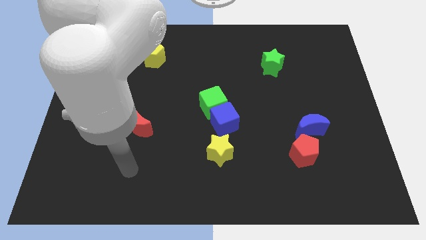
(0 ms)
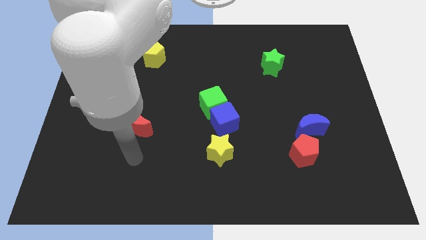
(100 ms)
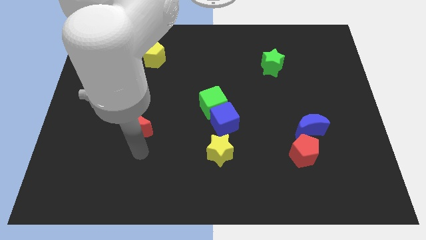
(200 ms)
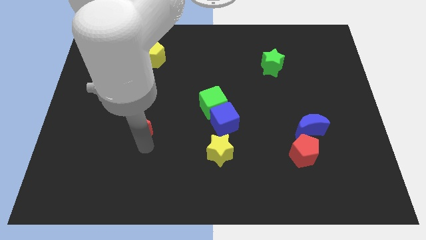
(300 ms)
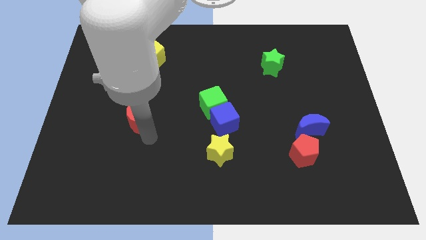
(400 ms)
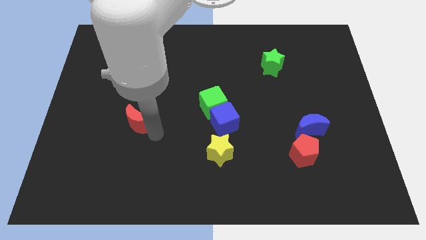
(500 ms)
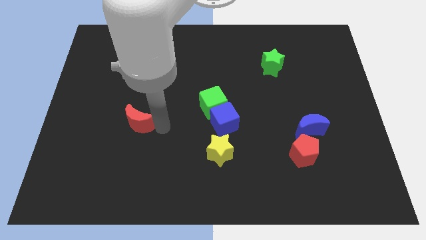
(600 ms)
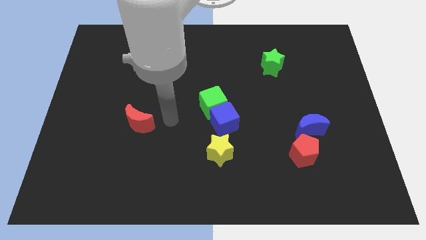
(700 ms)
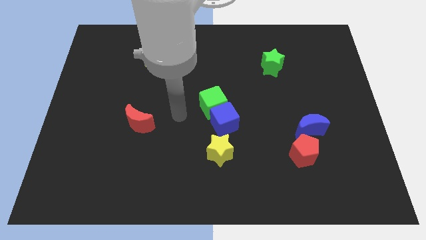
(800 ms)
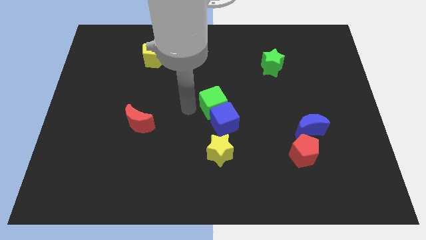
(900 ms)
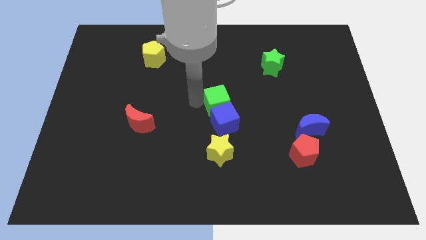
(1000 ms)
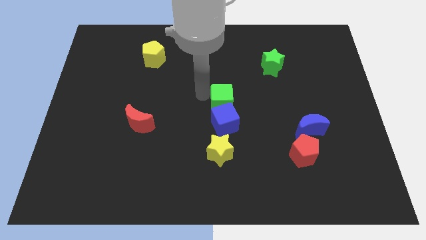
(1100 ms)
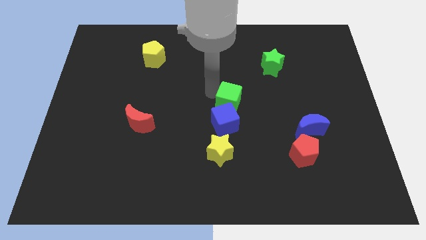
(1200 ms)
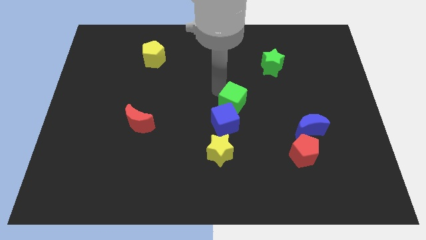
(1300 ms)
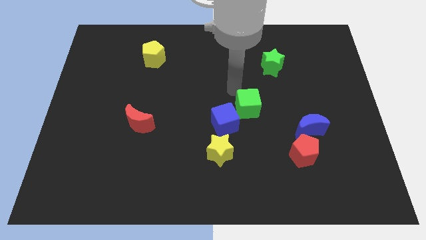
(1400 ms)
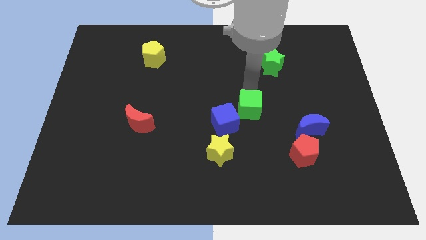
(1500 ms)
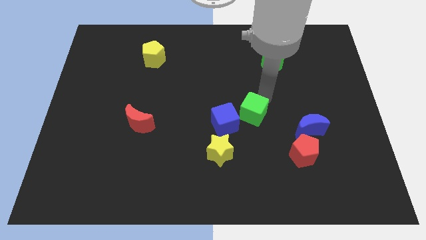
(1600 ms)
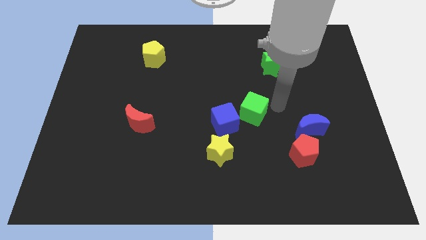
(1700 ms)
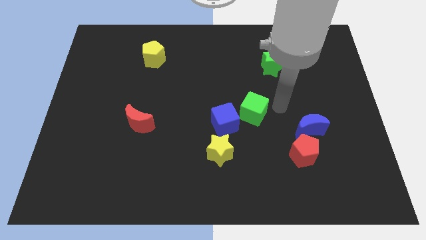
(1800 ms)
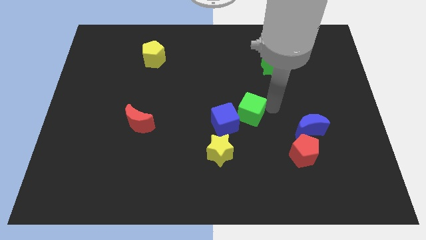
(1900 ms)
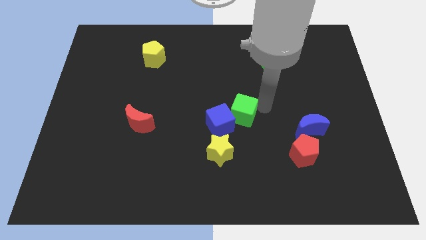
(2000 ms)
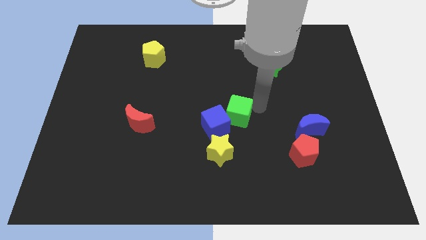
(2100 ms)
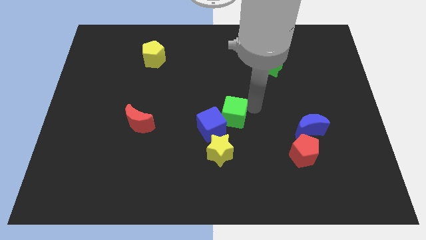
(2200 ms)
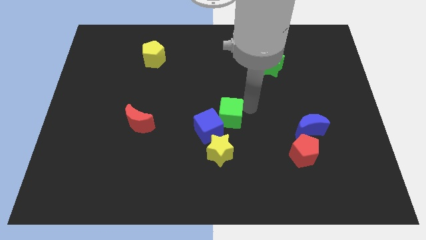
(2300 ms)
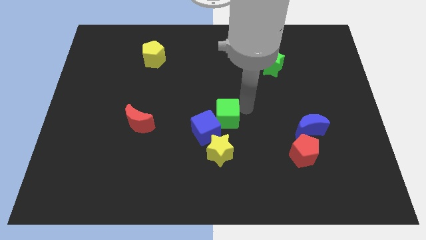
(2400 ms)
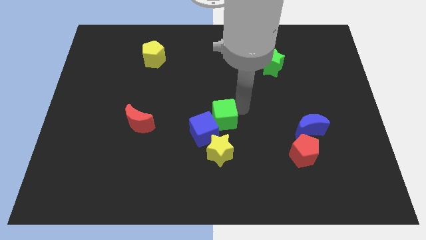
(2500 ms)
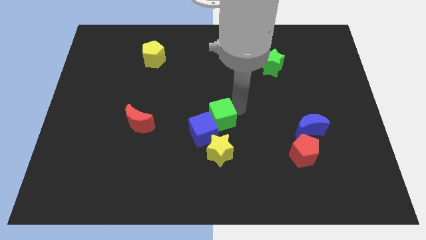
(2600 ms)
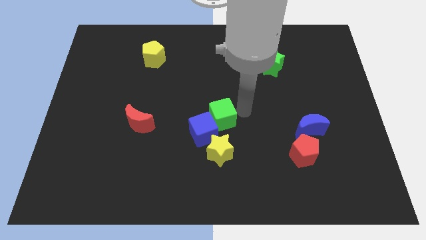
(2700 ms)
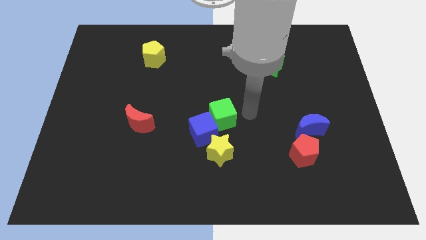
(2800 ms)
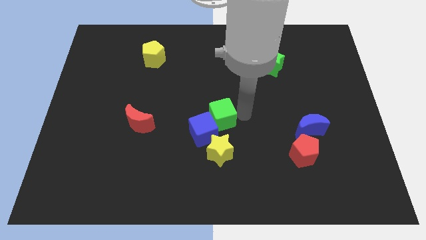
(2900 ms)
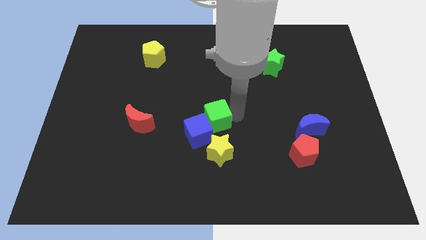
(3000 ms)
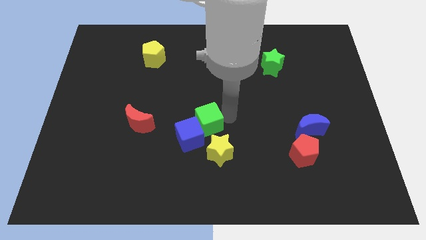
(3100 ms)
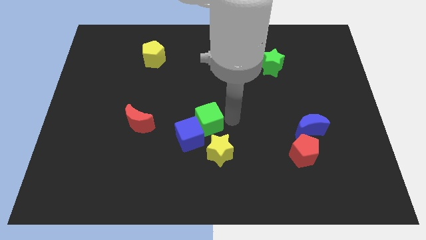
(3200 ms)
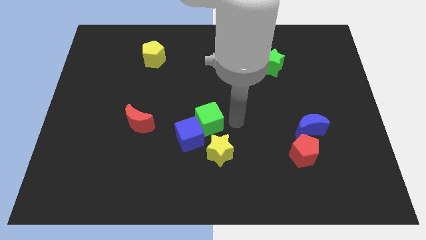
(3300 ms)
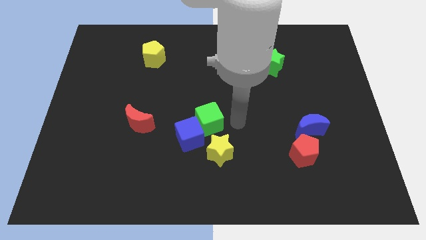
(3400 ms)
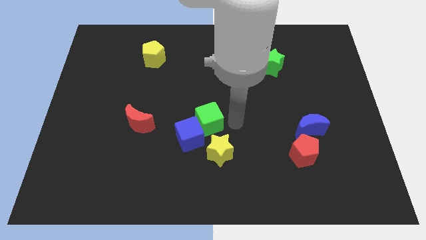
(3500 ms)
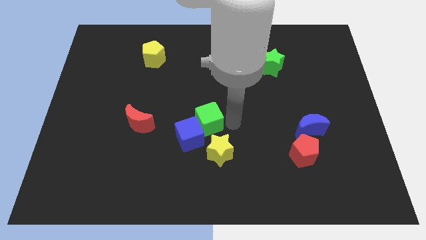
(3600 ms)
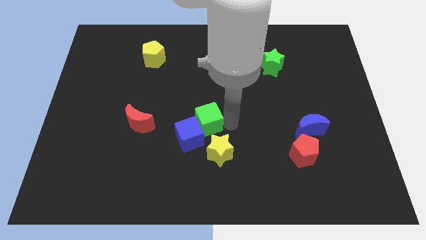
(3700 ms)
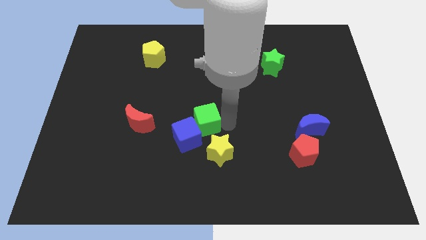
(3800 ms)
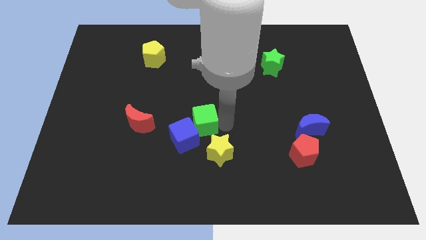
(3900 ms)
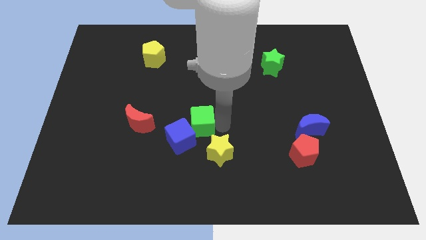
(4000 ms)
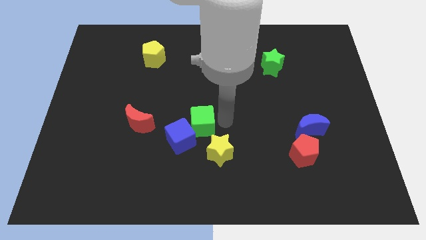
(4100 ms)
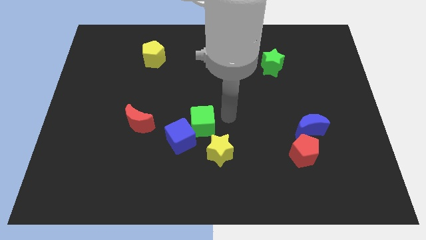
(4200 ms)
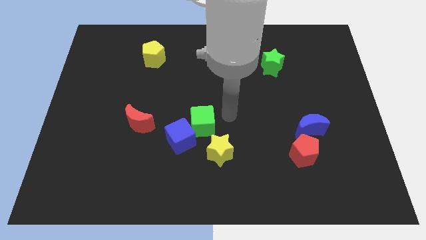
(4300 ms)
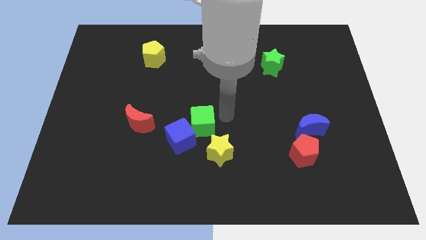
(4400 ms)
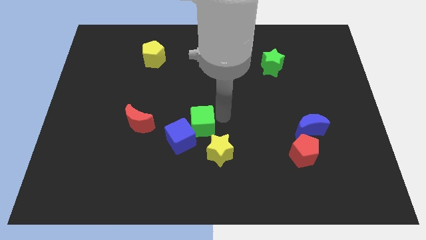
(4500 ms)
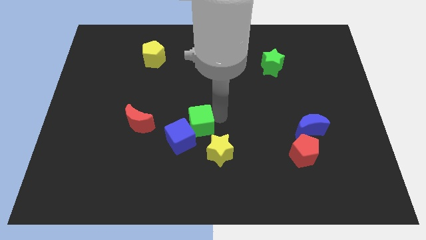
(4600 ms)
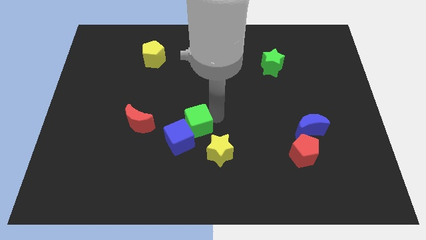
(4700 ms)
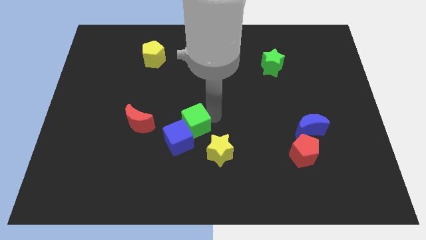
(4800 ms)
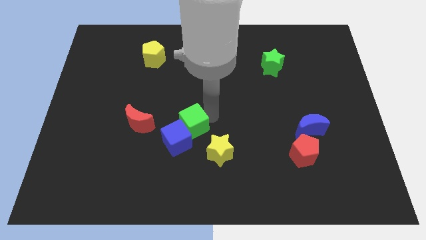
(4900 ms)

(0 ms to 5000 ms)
push the green cube a little bit downwards and left diagonally

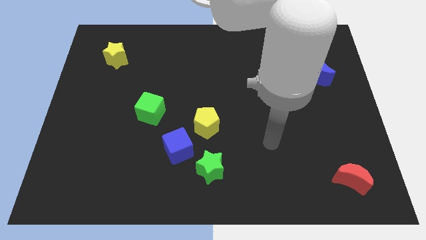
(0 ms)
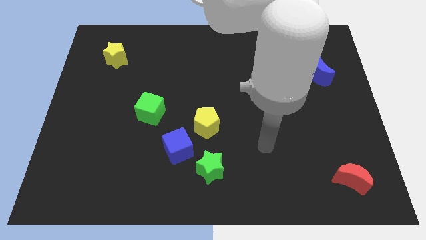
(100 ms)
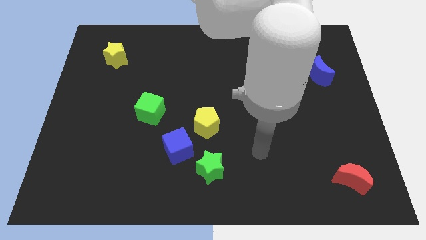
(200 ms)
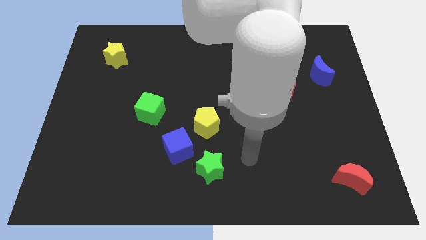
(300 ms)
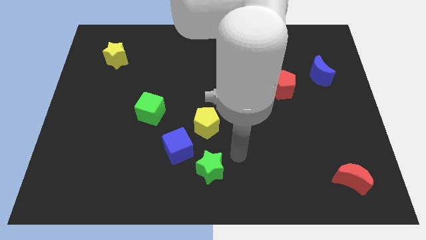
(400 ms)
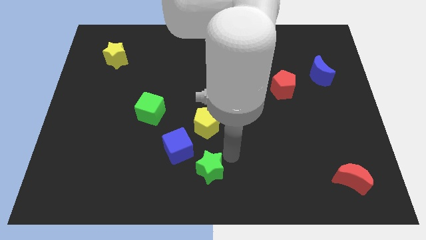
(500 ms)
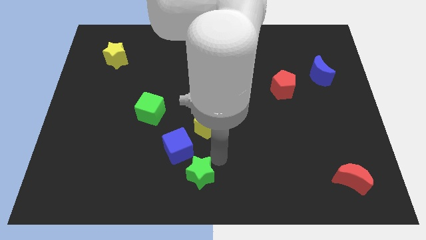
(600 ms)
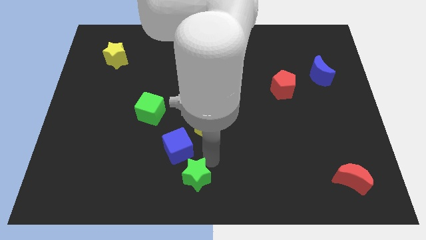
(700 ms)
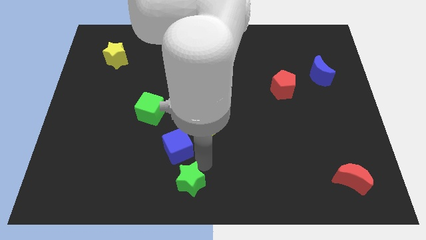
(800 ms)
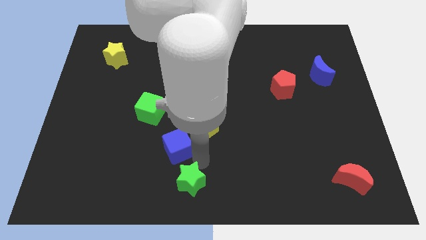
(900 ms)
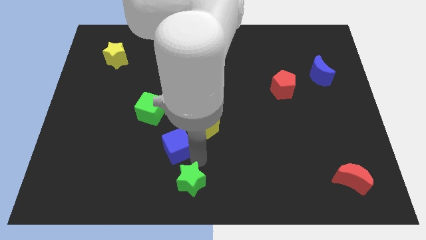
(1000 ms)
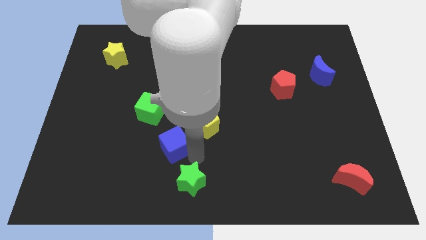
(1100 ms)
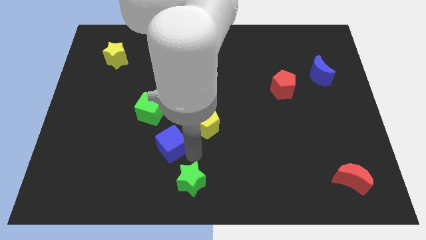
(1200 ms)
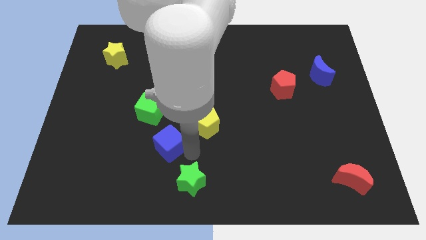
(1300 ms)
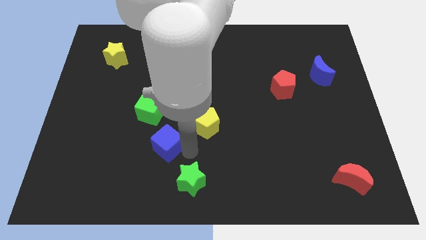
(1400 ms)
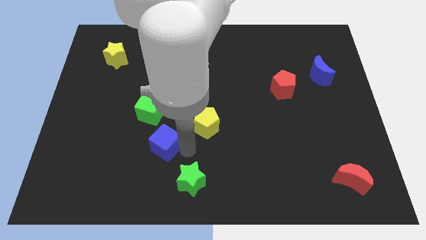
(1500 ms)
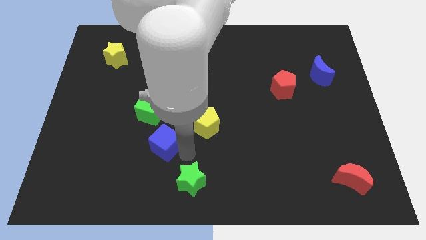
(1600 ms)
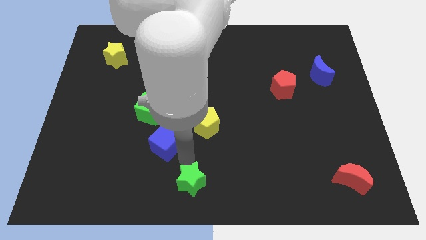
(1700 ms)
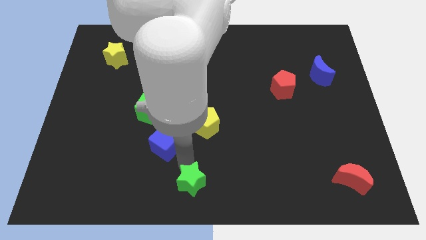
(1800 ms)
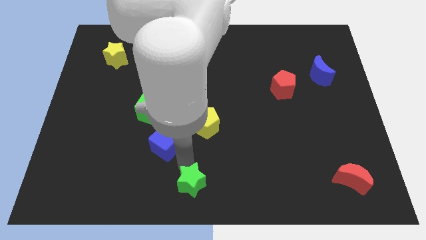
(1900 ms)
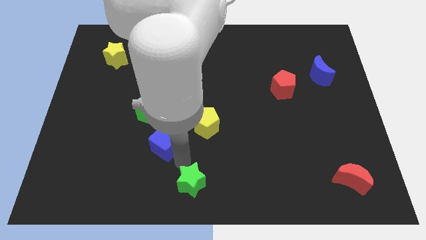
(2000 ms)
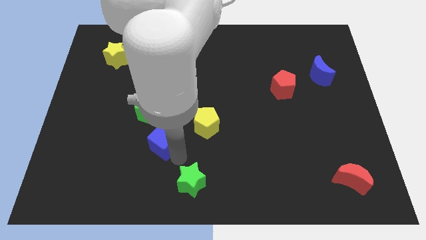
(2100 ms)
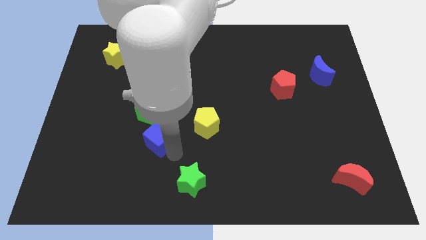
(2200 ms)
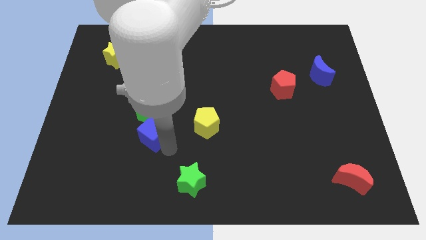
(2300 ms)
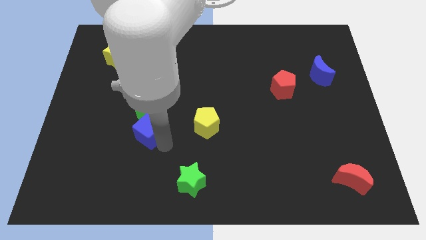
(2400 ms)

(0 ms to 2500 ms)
slightly slide the blue cube up and left

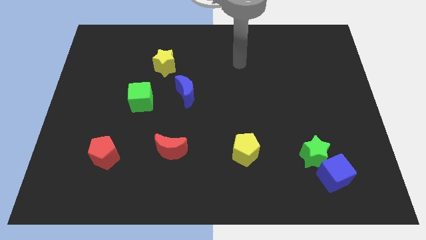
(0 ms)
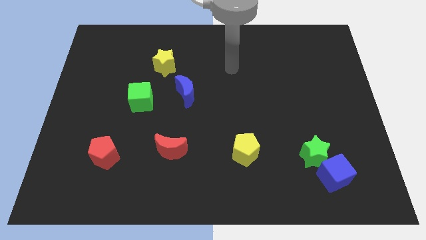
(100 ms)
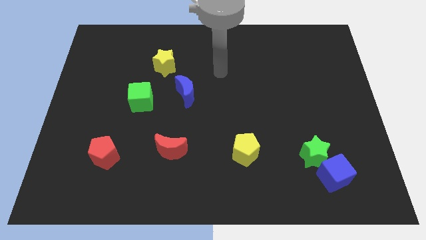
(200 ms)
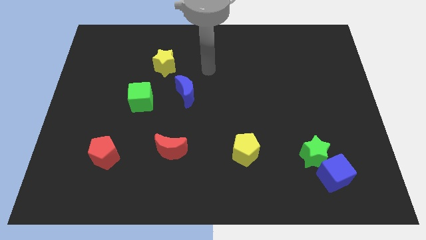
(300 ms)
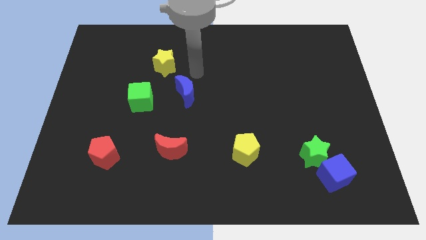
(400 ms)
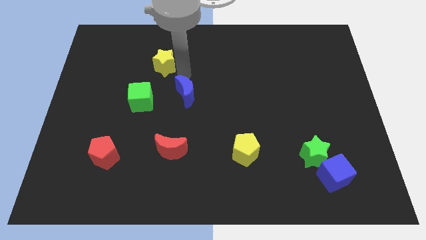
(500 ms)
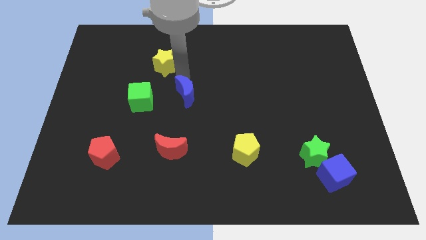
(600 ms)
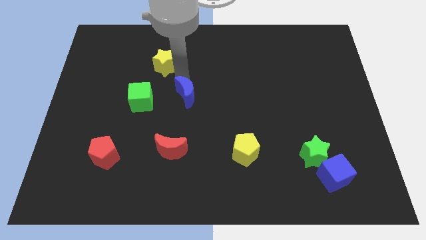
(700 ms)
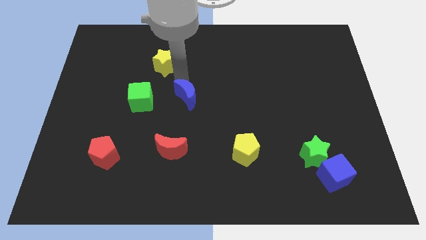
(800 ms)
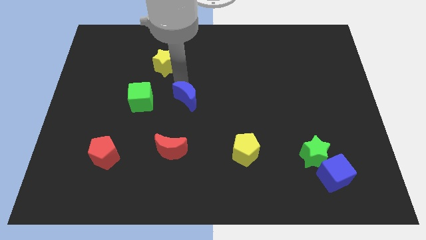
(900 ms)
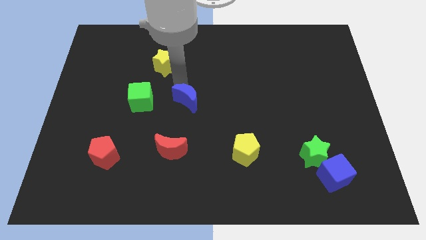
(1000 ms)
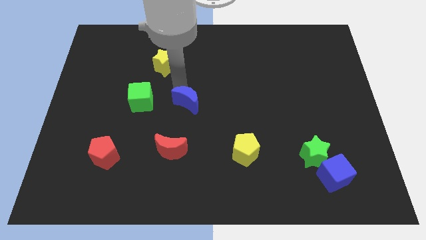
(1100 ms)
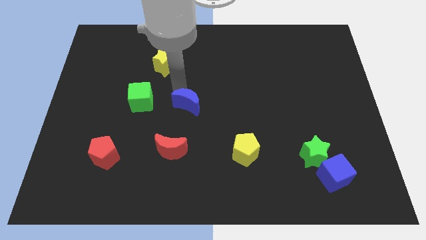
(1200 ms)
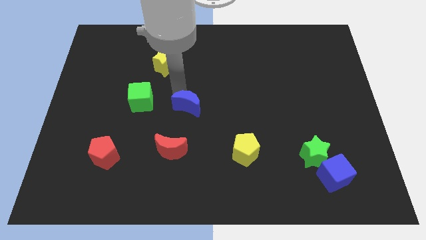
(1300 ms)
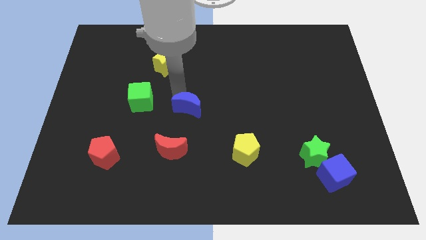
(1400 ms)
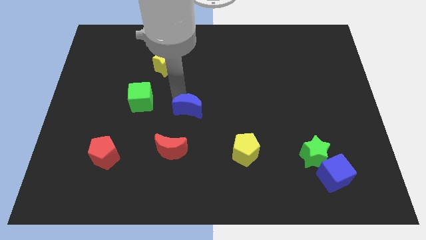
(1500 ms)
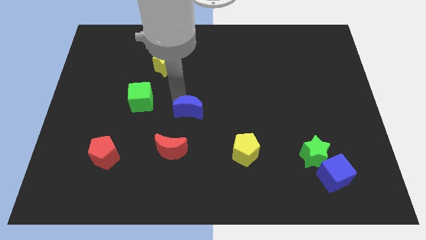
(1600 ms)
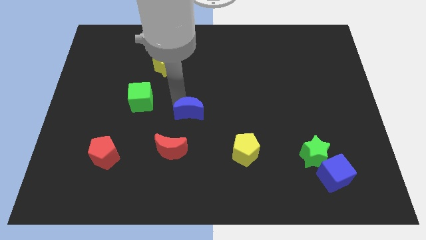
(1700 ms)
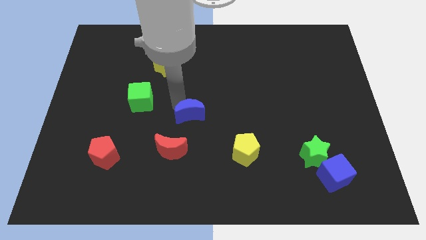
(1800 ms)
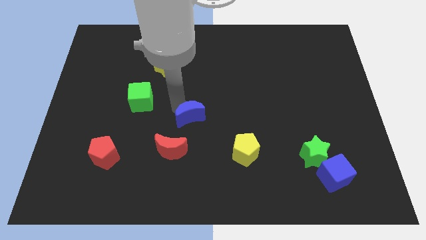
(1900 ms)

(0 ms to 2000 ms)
slightly move the blue moon down
